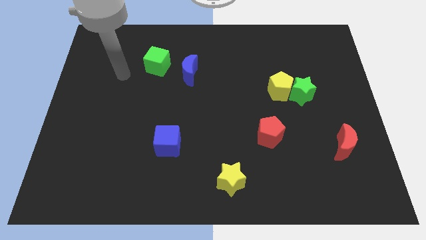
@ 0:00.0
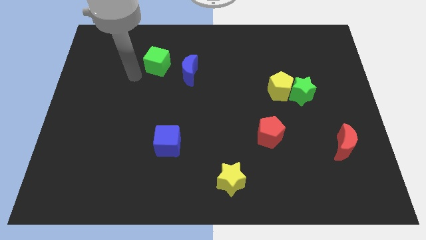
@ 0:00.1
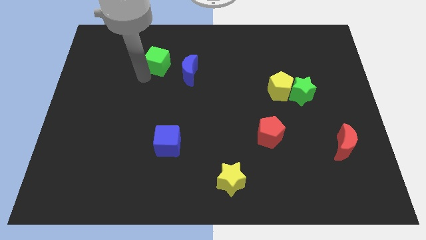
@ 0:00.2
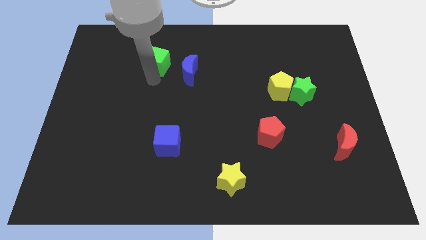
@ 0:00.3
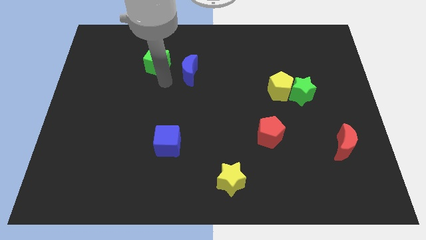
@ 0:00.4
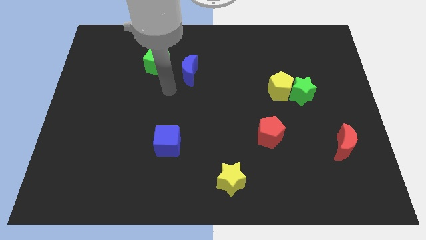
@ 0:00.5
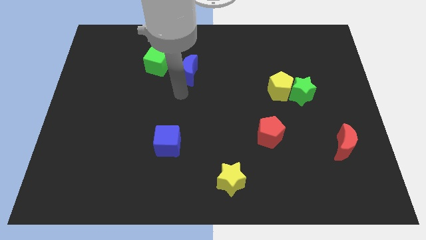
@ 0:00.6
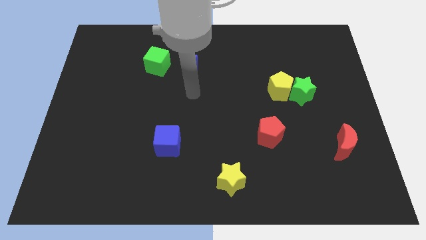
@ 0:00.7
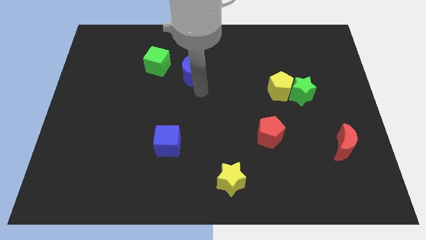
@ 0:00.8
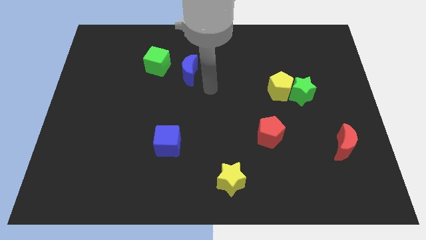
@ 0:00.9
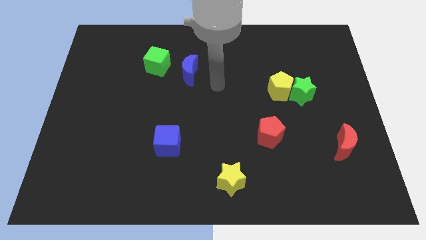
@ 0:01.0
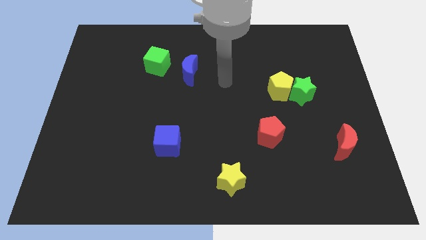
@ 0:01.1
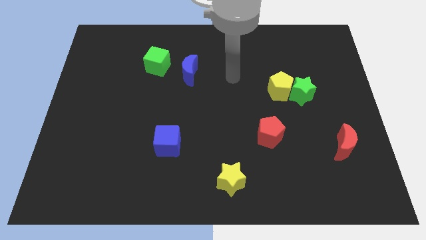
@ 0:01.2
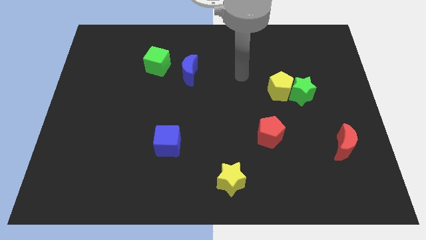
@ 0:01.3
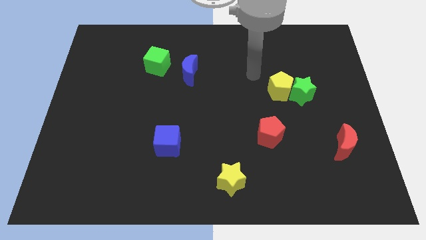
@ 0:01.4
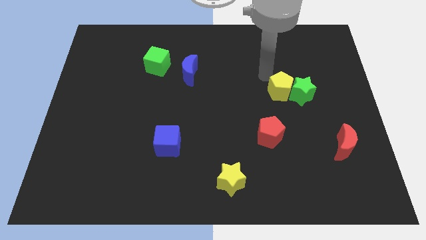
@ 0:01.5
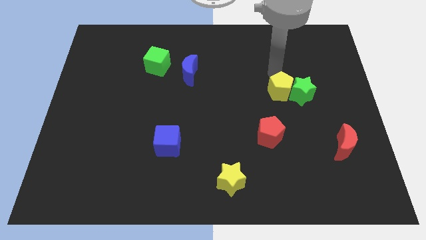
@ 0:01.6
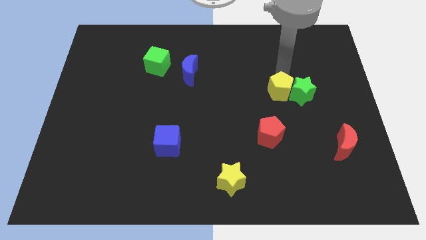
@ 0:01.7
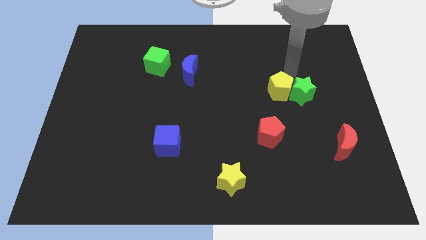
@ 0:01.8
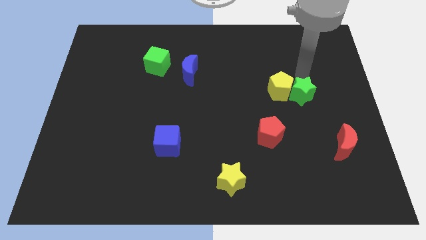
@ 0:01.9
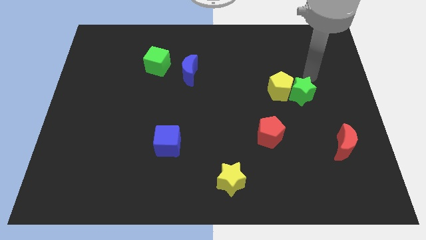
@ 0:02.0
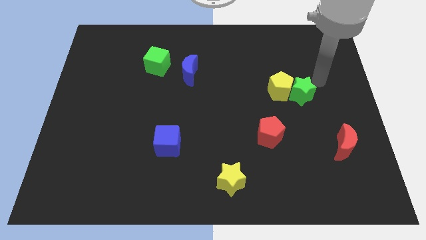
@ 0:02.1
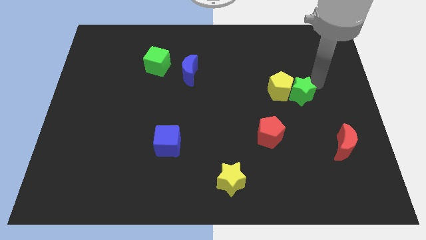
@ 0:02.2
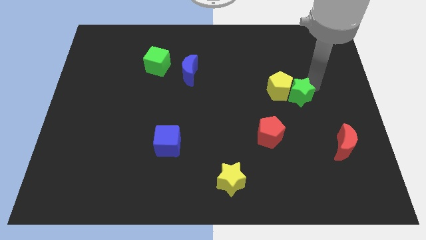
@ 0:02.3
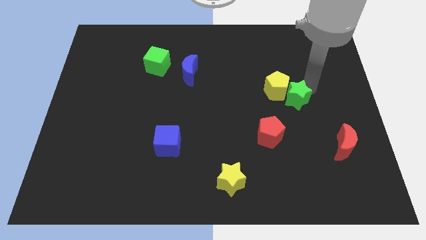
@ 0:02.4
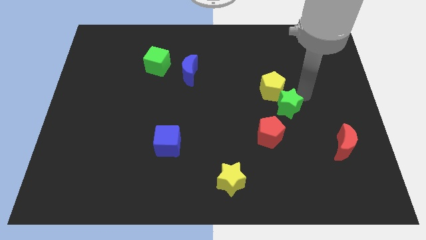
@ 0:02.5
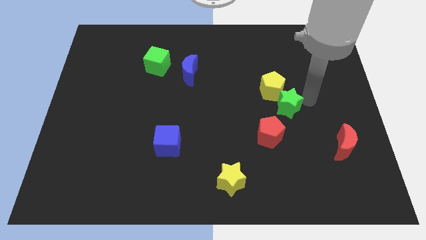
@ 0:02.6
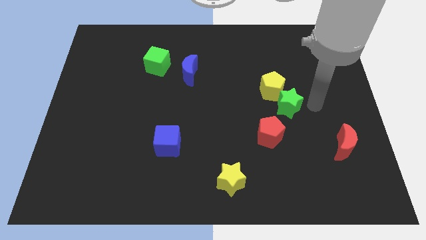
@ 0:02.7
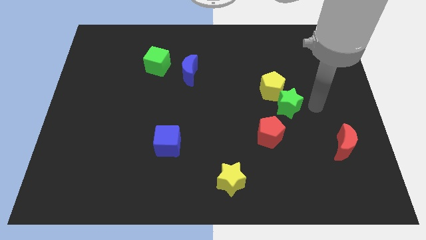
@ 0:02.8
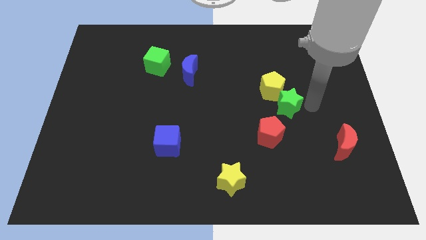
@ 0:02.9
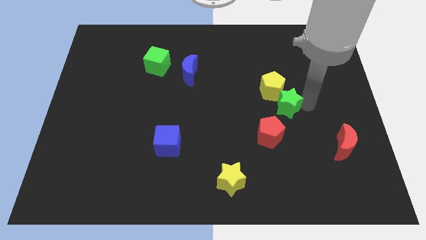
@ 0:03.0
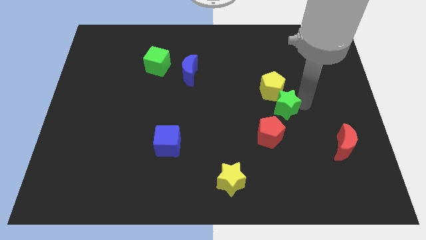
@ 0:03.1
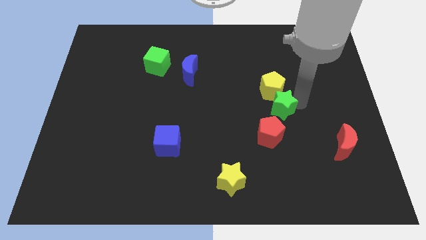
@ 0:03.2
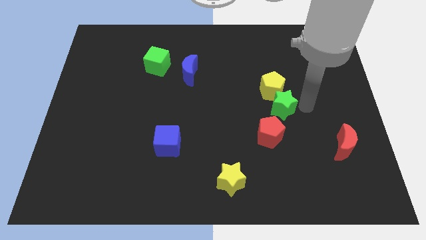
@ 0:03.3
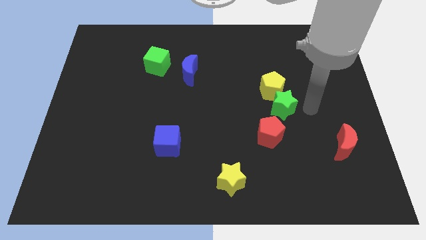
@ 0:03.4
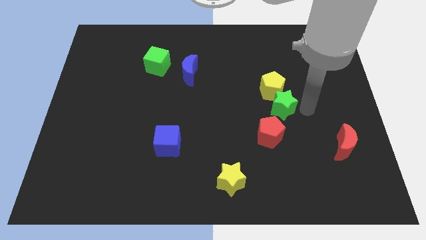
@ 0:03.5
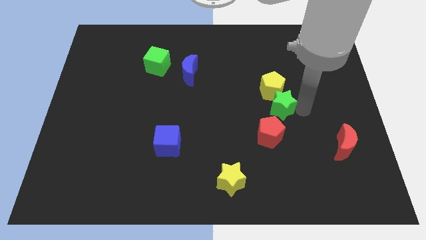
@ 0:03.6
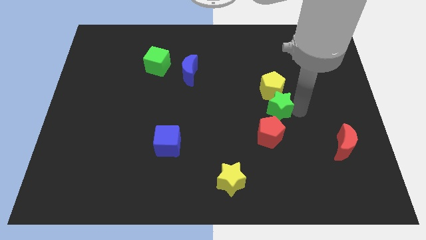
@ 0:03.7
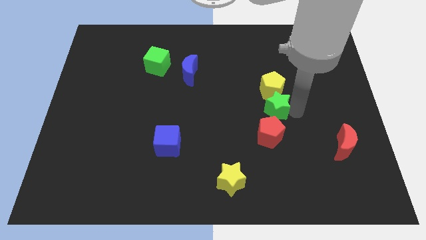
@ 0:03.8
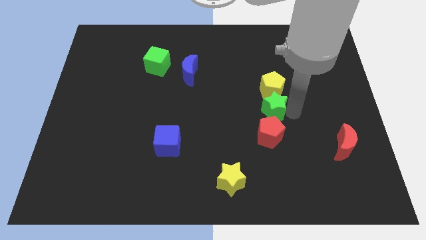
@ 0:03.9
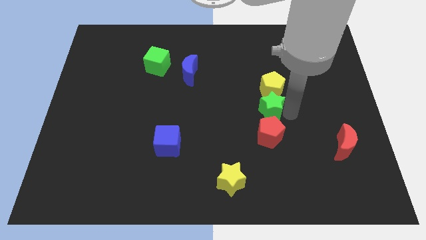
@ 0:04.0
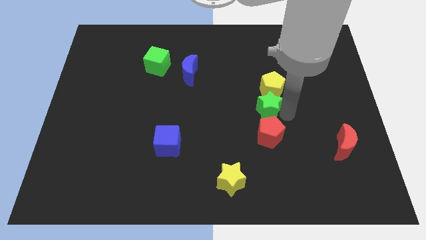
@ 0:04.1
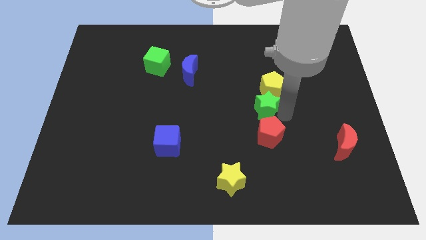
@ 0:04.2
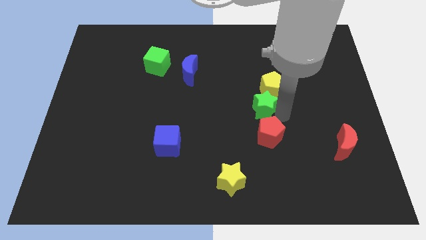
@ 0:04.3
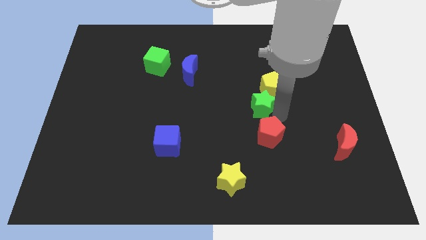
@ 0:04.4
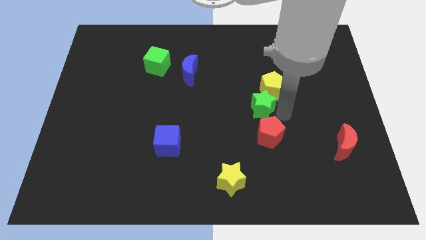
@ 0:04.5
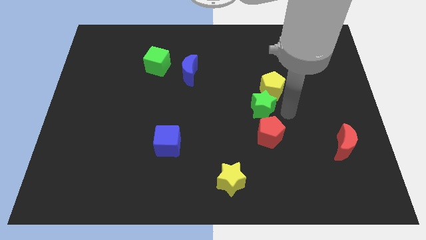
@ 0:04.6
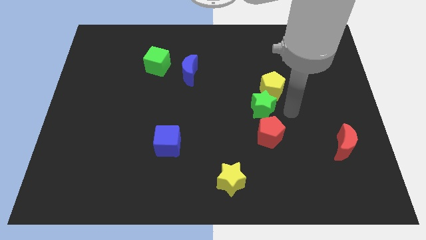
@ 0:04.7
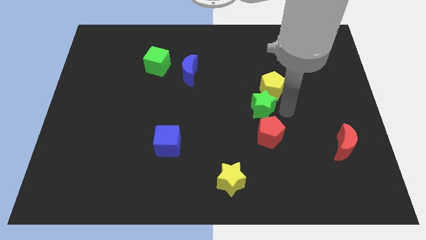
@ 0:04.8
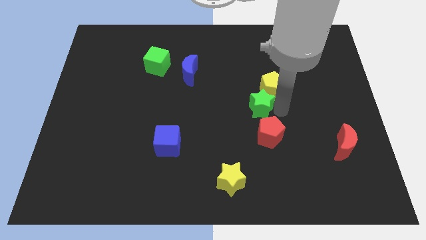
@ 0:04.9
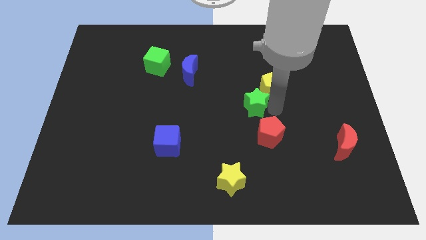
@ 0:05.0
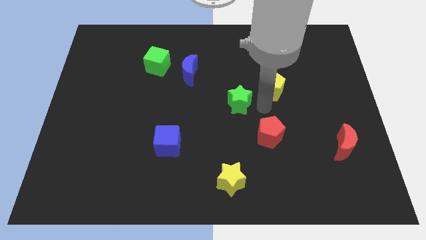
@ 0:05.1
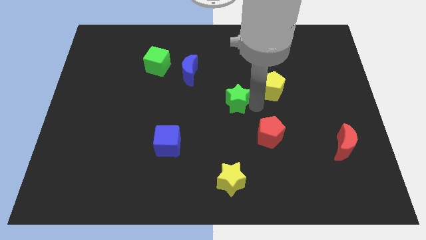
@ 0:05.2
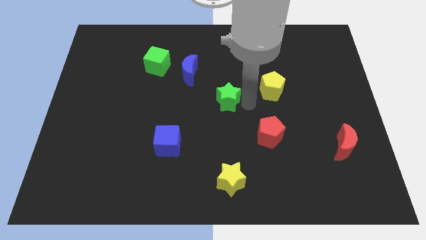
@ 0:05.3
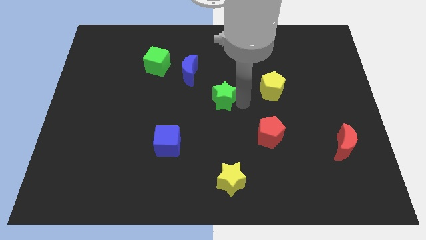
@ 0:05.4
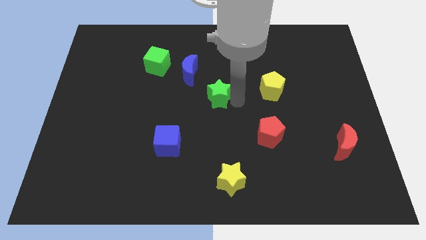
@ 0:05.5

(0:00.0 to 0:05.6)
move the green star left

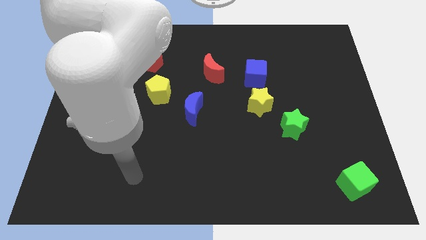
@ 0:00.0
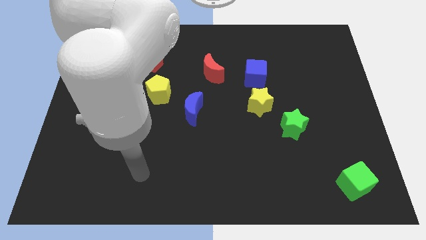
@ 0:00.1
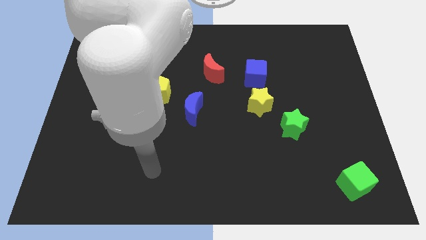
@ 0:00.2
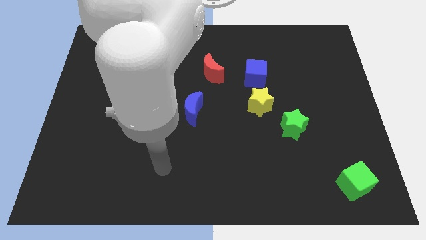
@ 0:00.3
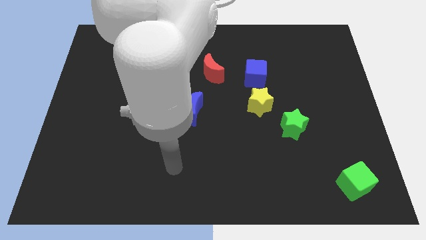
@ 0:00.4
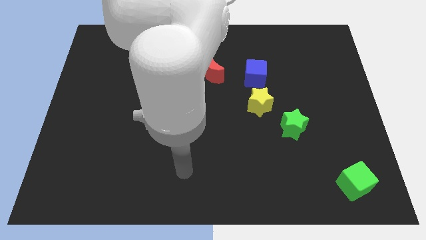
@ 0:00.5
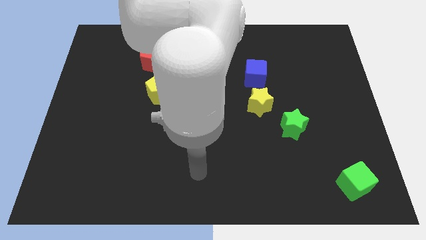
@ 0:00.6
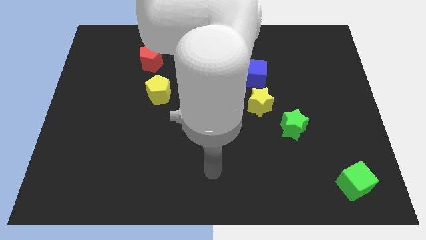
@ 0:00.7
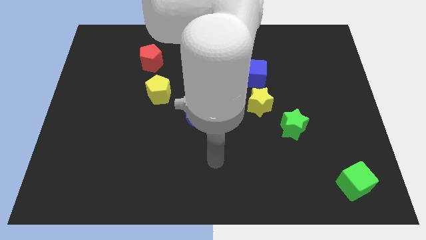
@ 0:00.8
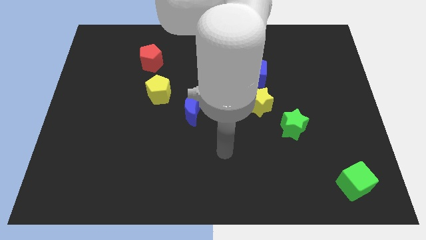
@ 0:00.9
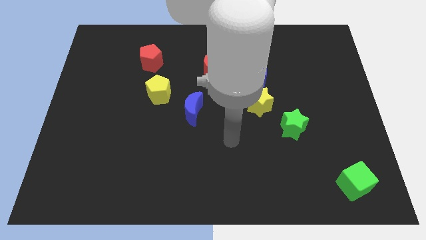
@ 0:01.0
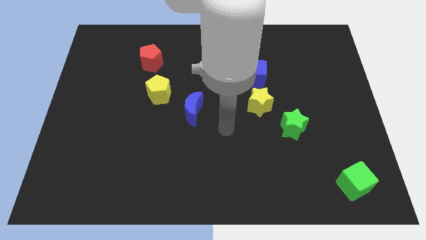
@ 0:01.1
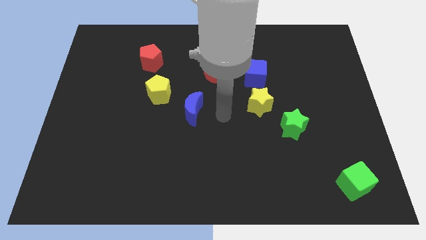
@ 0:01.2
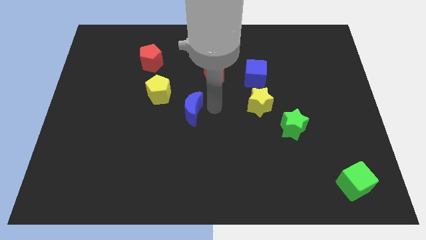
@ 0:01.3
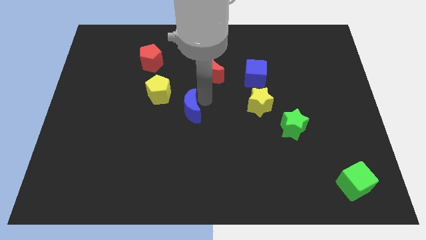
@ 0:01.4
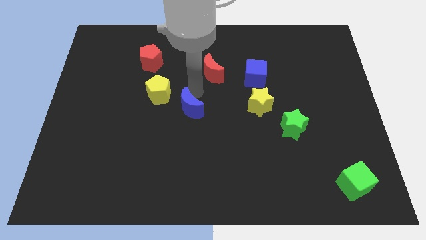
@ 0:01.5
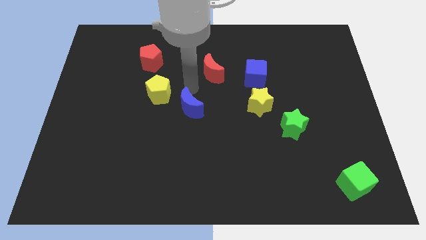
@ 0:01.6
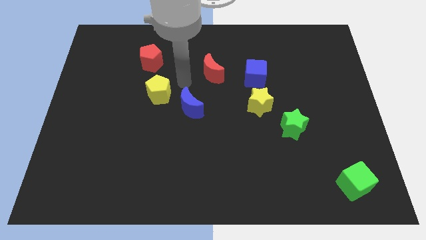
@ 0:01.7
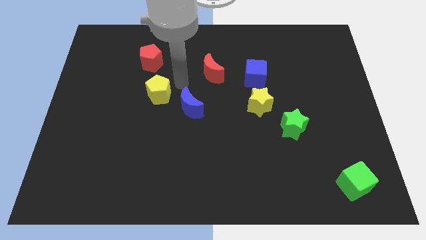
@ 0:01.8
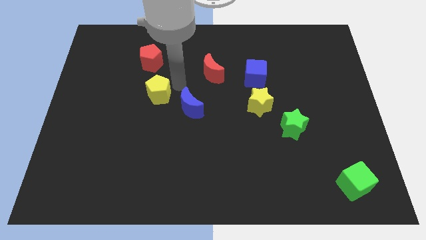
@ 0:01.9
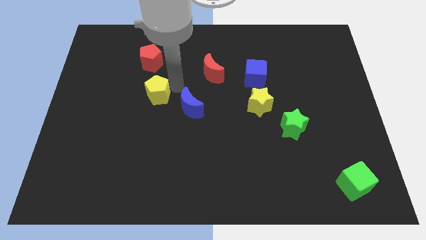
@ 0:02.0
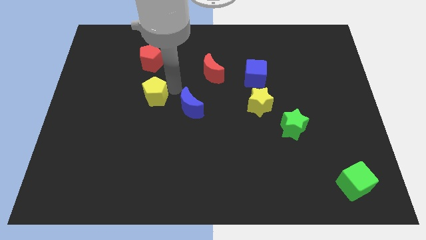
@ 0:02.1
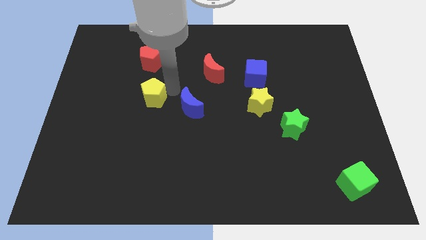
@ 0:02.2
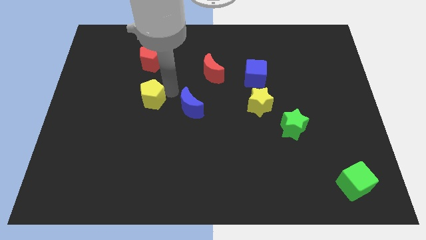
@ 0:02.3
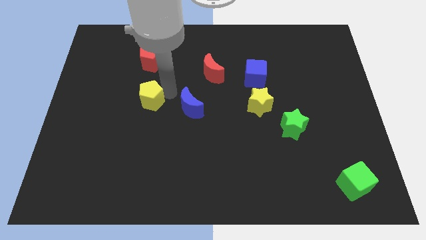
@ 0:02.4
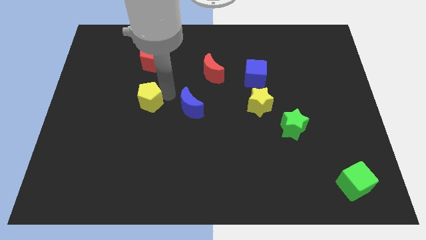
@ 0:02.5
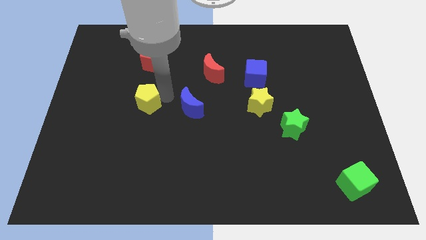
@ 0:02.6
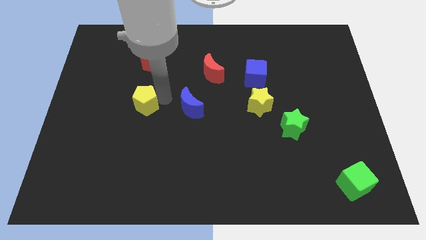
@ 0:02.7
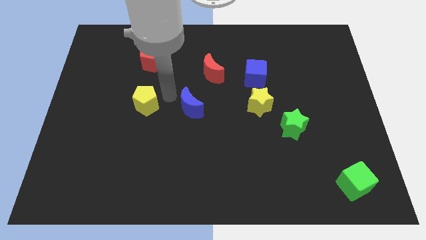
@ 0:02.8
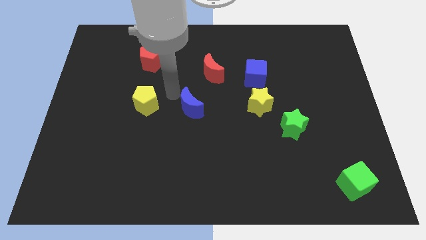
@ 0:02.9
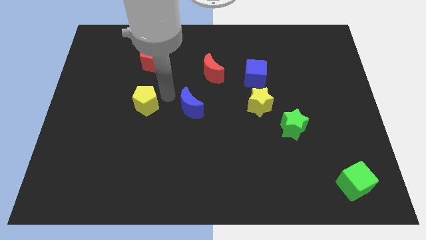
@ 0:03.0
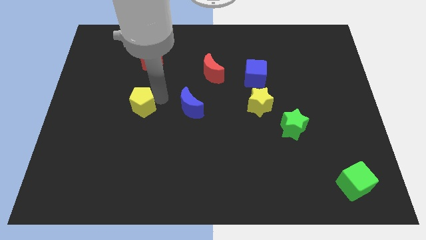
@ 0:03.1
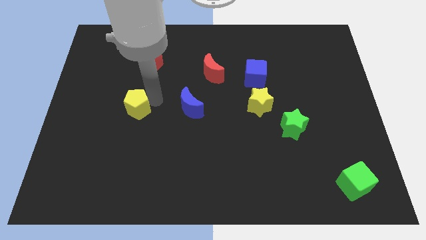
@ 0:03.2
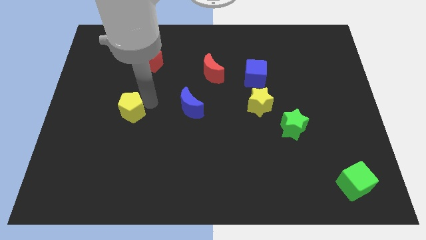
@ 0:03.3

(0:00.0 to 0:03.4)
push the yellow pentagon downwards and then left a little
